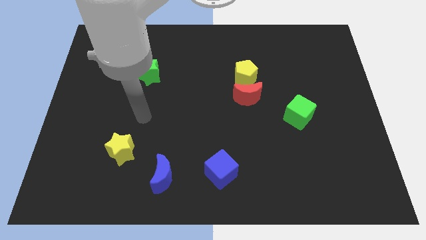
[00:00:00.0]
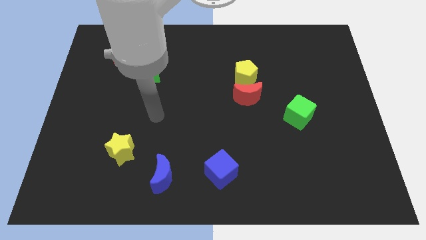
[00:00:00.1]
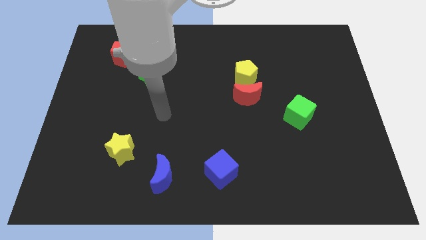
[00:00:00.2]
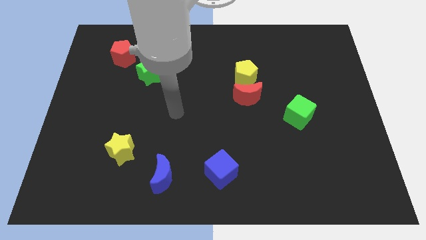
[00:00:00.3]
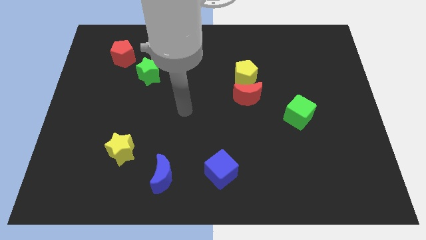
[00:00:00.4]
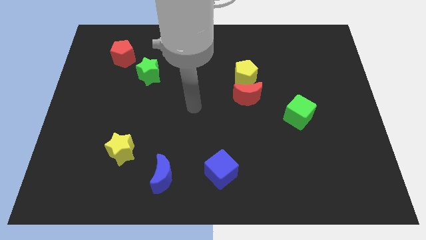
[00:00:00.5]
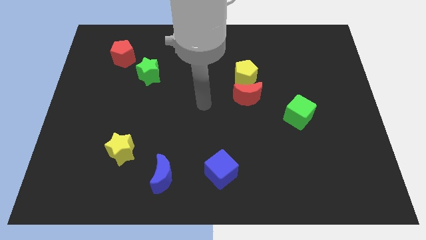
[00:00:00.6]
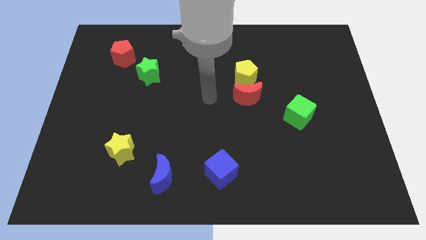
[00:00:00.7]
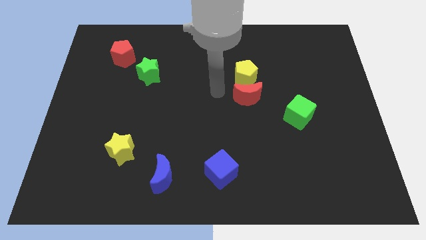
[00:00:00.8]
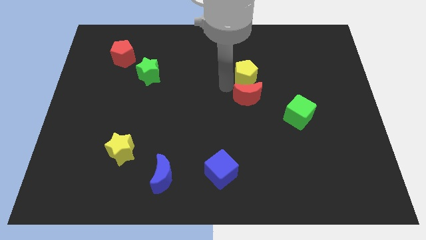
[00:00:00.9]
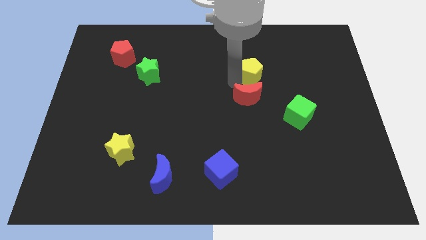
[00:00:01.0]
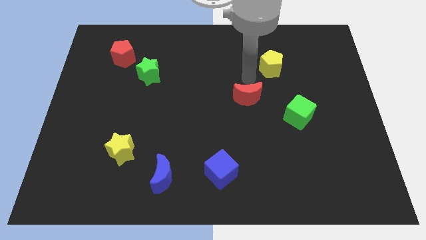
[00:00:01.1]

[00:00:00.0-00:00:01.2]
pull the red moon apart from the yellow pentagon

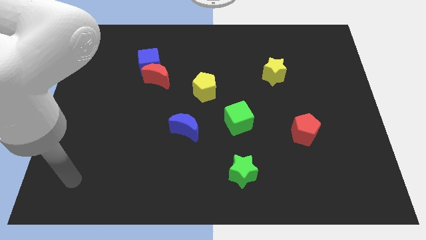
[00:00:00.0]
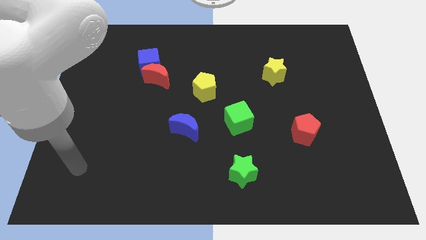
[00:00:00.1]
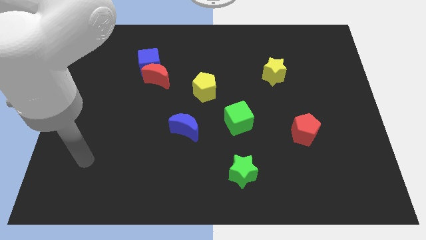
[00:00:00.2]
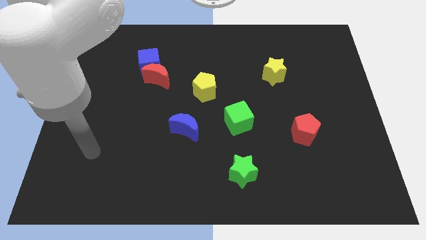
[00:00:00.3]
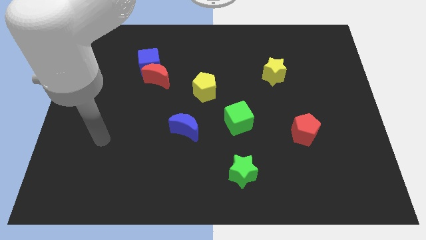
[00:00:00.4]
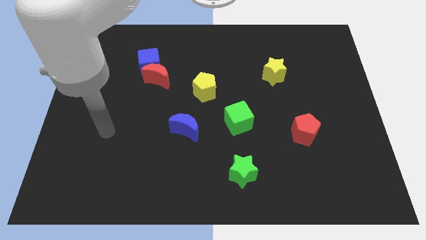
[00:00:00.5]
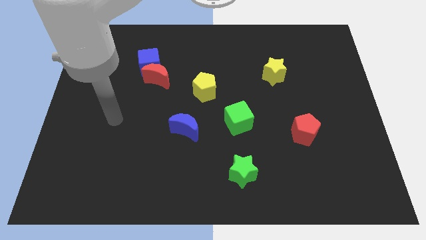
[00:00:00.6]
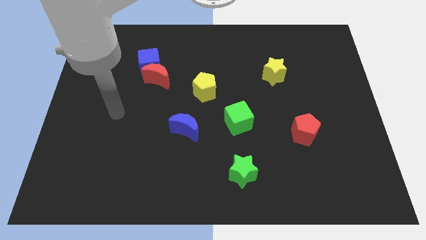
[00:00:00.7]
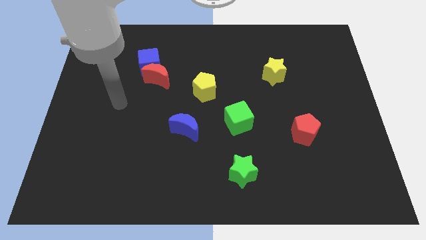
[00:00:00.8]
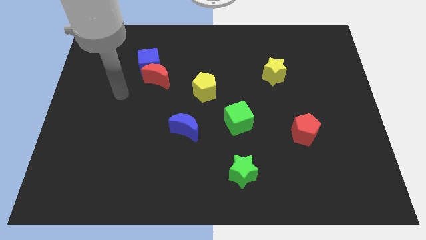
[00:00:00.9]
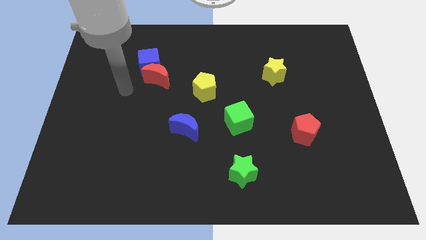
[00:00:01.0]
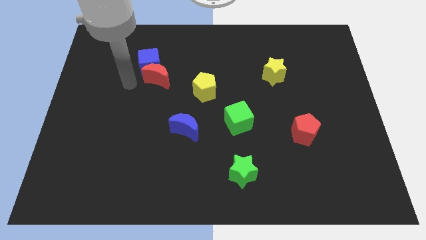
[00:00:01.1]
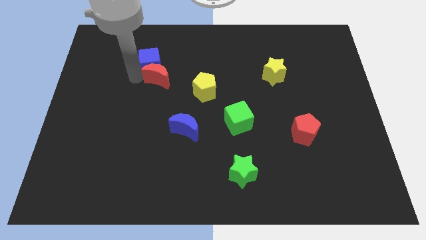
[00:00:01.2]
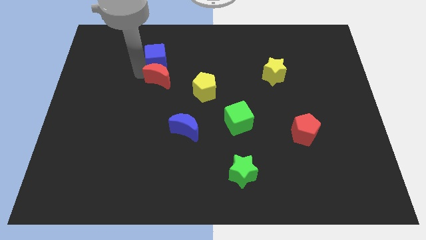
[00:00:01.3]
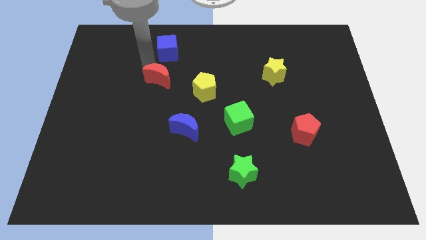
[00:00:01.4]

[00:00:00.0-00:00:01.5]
separate the red moon from the blue cube

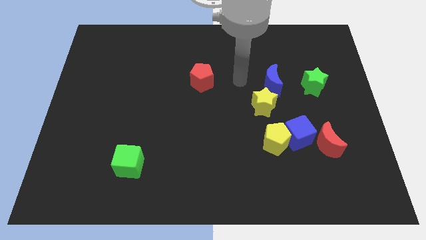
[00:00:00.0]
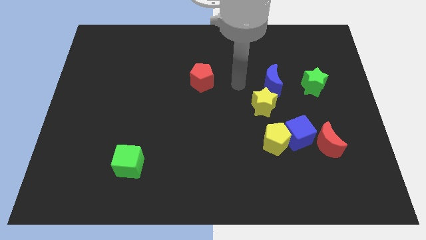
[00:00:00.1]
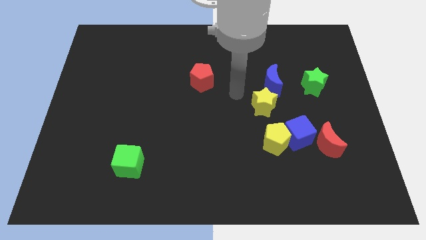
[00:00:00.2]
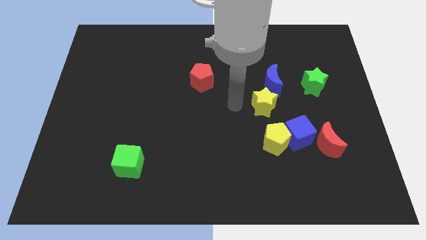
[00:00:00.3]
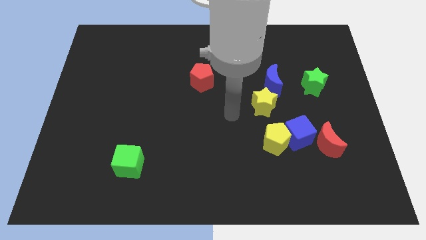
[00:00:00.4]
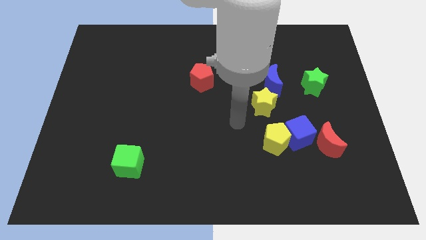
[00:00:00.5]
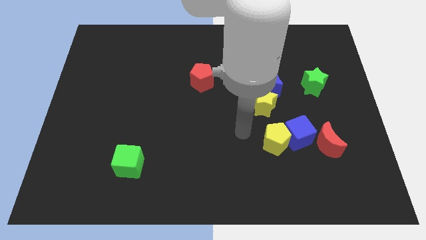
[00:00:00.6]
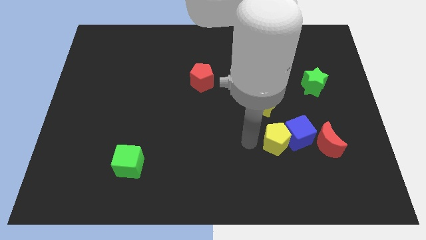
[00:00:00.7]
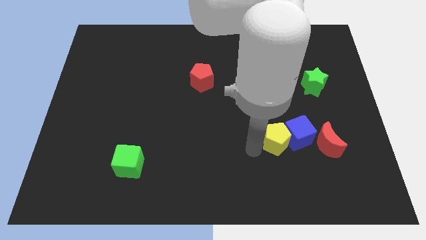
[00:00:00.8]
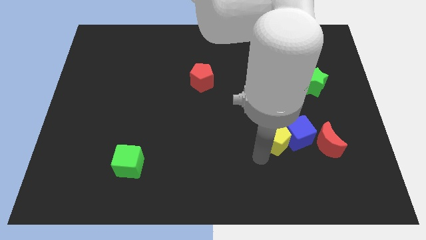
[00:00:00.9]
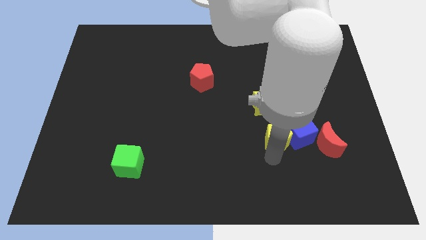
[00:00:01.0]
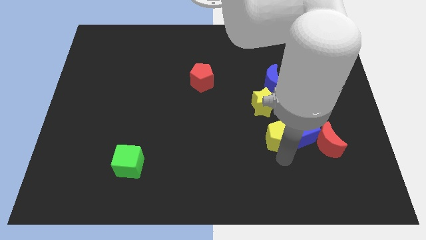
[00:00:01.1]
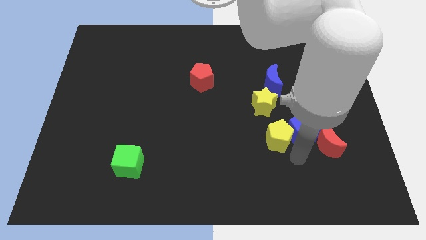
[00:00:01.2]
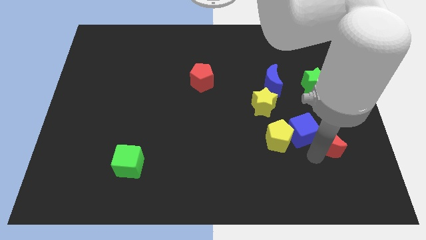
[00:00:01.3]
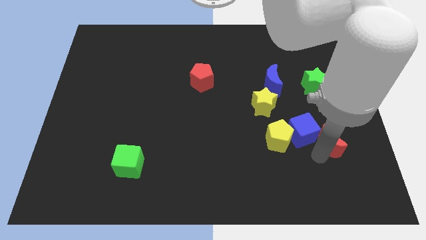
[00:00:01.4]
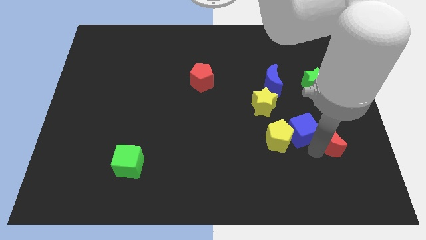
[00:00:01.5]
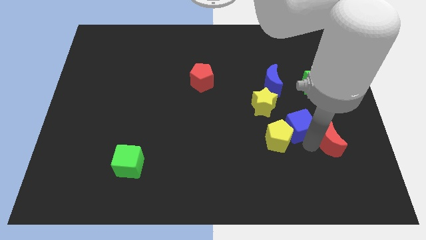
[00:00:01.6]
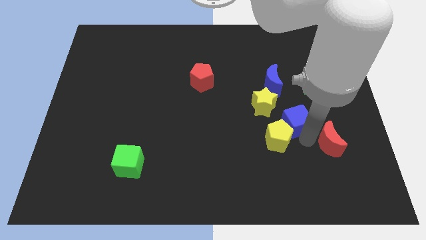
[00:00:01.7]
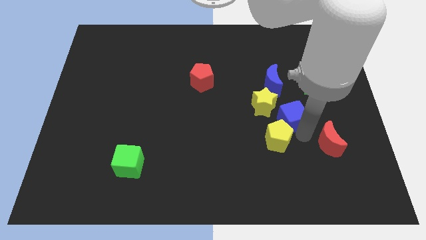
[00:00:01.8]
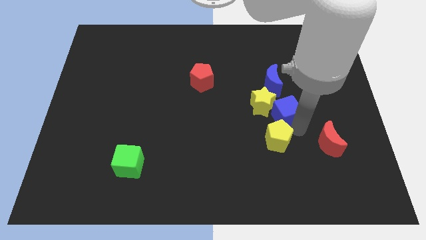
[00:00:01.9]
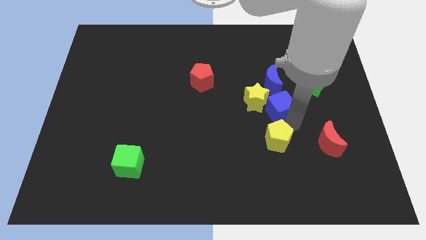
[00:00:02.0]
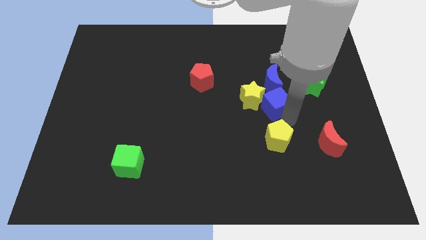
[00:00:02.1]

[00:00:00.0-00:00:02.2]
pull the blue cube apart from the yellow pentagon and red moon

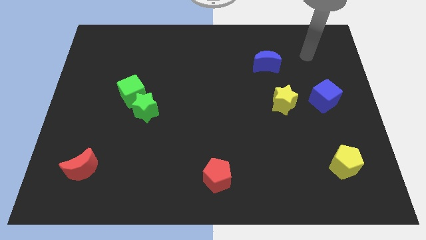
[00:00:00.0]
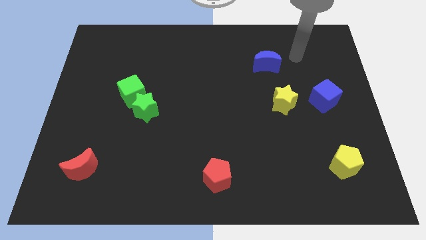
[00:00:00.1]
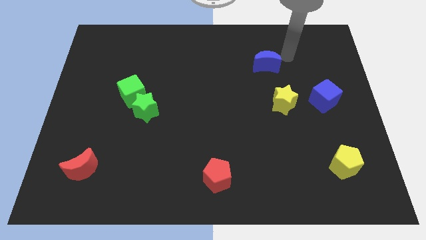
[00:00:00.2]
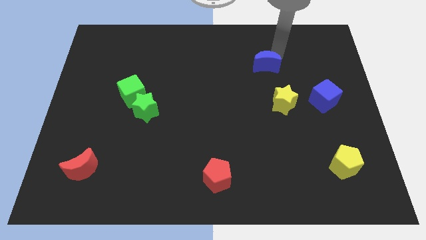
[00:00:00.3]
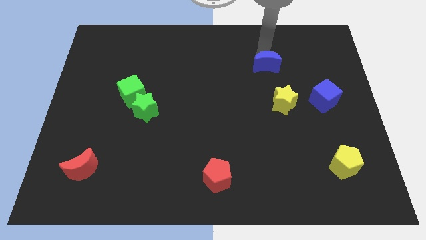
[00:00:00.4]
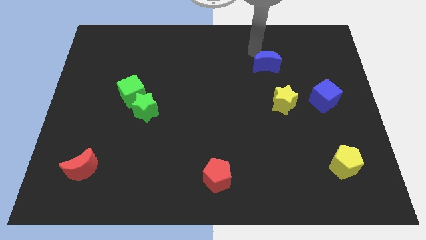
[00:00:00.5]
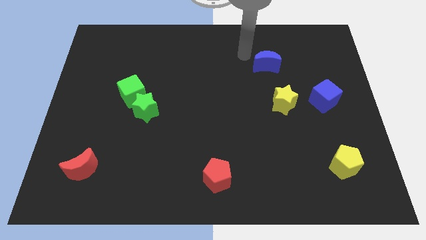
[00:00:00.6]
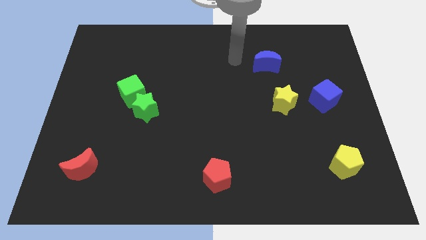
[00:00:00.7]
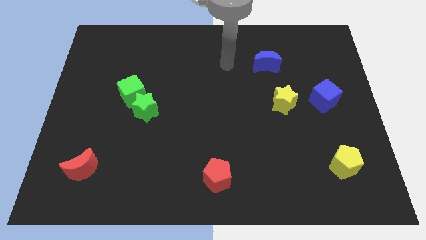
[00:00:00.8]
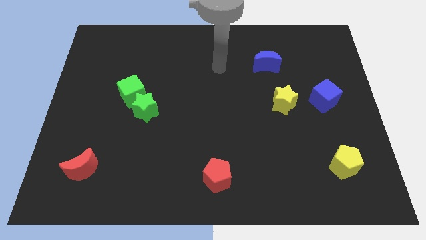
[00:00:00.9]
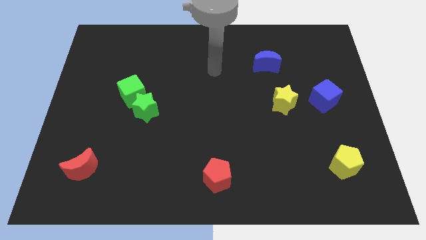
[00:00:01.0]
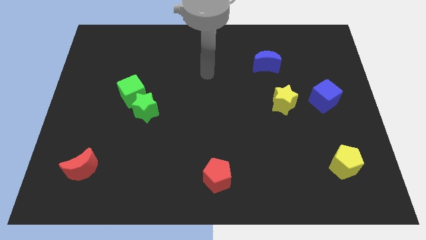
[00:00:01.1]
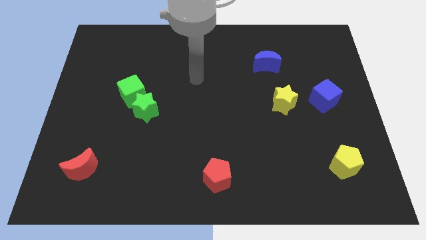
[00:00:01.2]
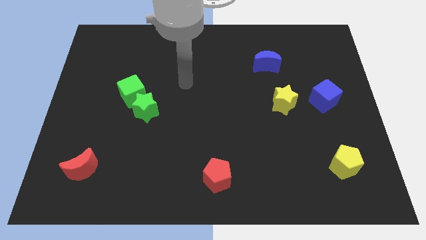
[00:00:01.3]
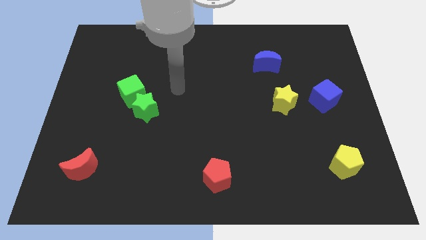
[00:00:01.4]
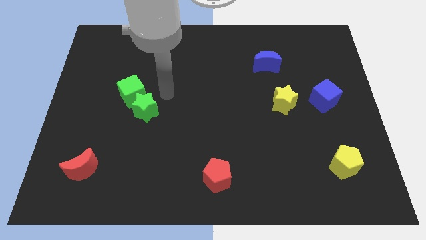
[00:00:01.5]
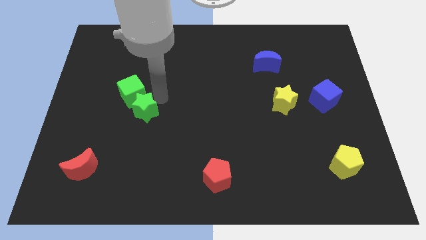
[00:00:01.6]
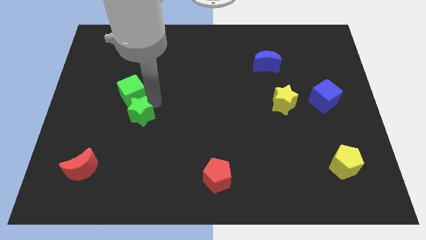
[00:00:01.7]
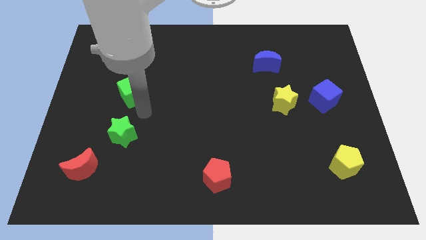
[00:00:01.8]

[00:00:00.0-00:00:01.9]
separate the green cube from the green star

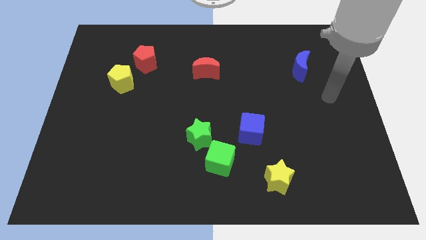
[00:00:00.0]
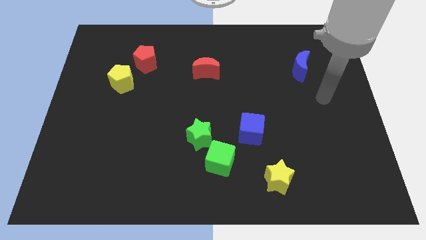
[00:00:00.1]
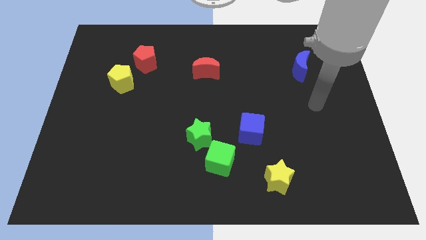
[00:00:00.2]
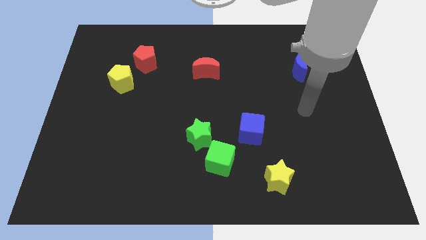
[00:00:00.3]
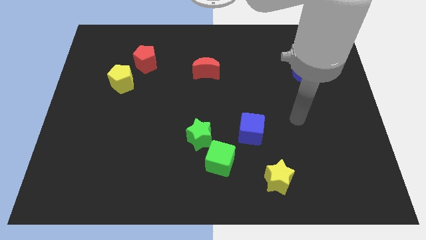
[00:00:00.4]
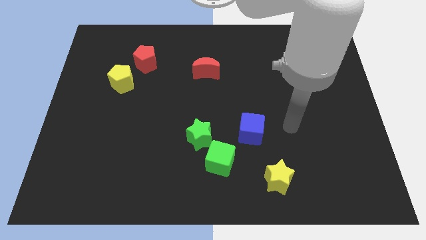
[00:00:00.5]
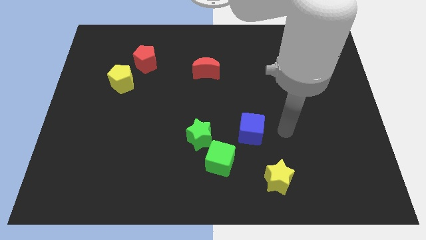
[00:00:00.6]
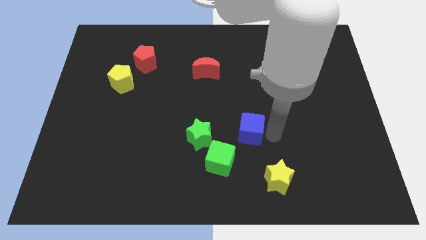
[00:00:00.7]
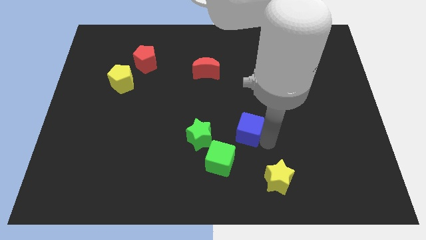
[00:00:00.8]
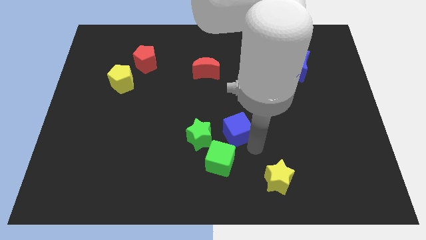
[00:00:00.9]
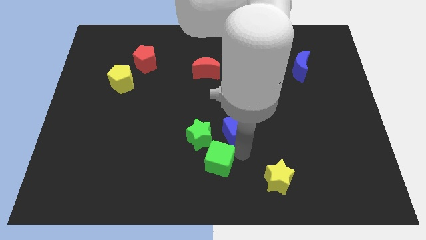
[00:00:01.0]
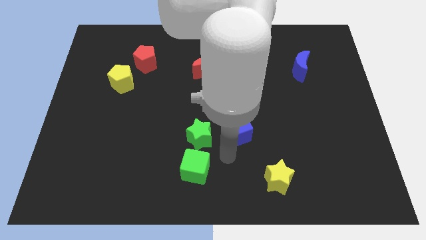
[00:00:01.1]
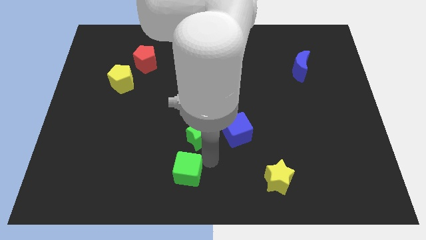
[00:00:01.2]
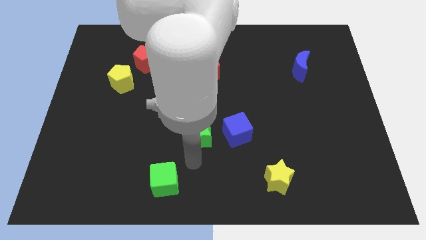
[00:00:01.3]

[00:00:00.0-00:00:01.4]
move the green star away from the green cube

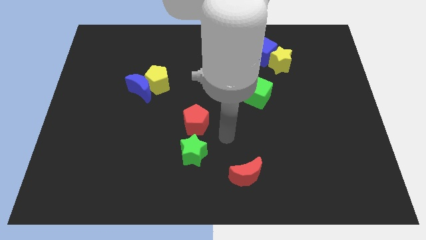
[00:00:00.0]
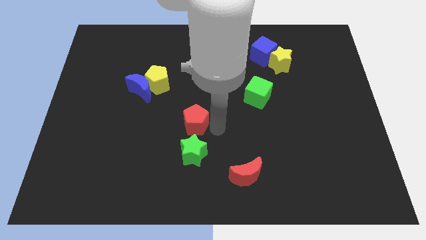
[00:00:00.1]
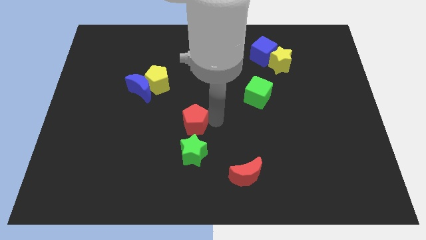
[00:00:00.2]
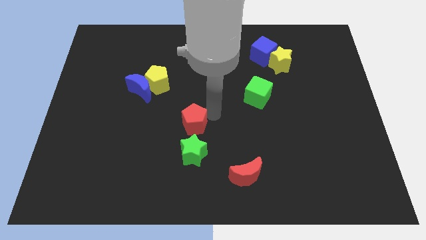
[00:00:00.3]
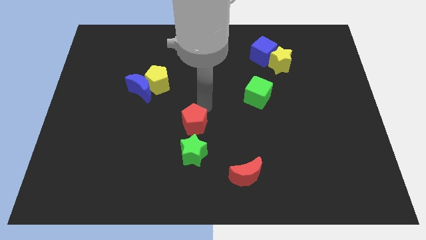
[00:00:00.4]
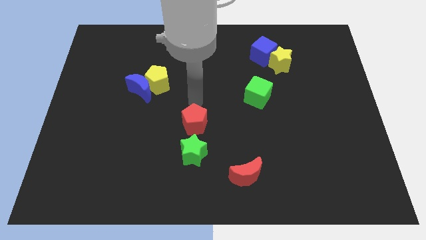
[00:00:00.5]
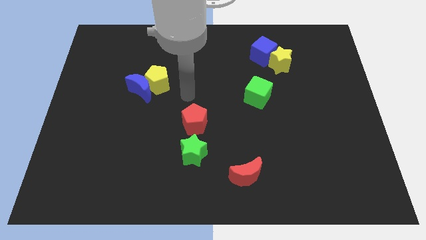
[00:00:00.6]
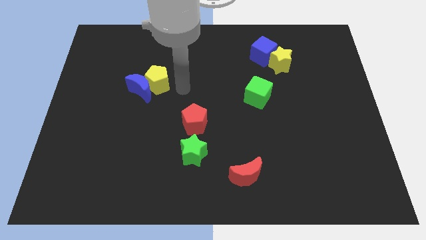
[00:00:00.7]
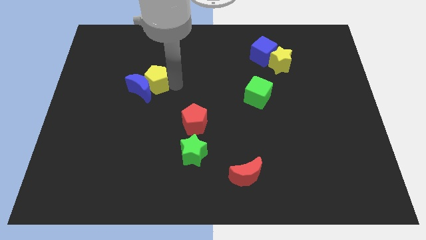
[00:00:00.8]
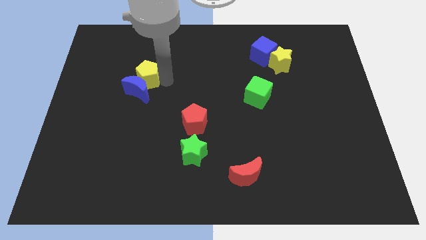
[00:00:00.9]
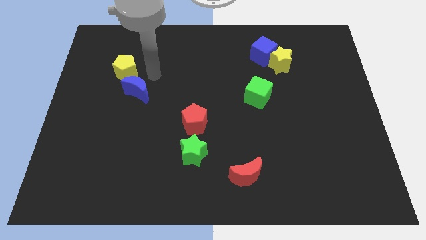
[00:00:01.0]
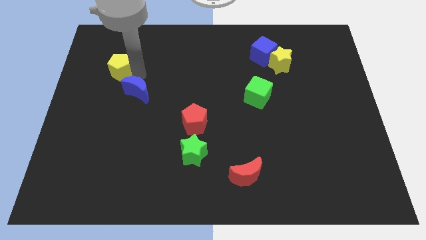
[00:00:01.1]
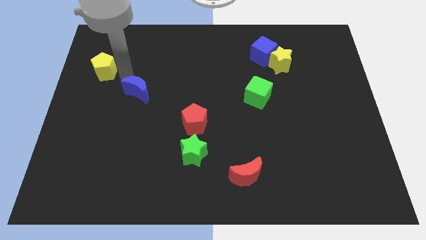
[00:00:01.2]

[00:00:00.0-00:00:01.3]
pull the blue moon apart from the yellow pentagon
